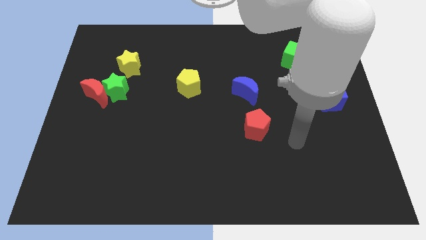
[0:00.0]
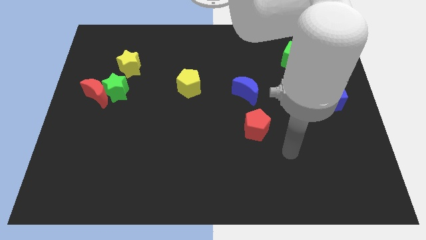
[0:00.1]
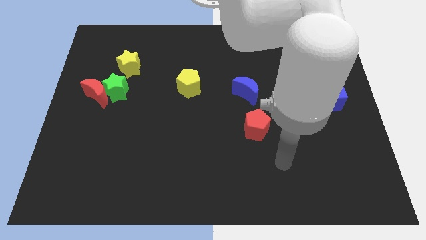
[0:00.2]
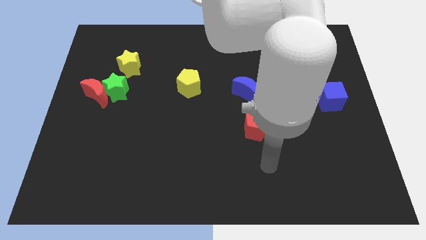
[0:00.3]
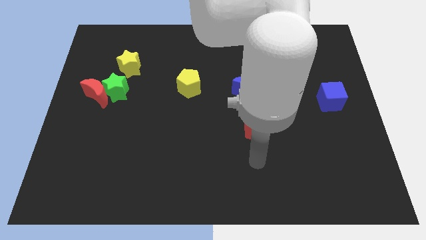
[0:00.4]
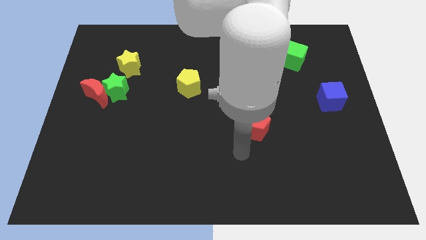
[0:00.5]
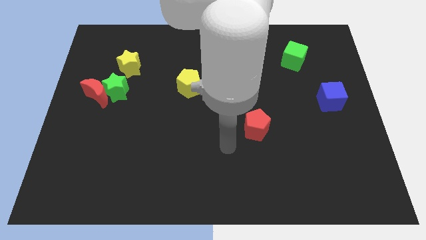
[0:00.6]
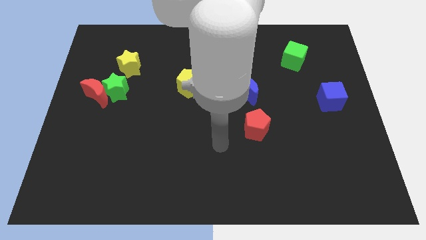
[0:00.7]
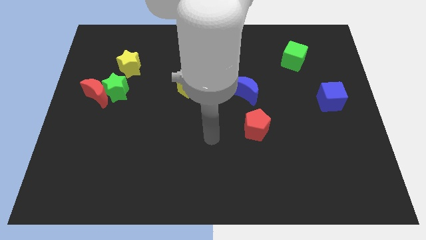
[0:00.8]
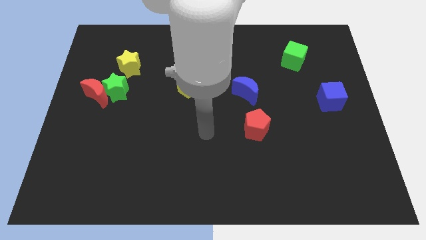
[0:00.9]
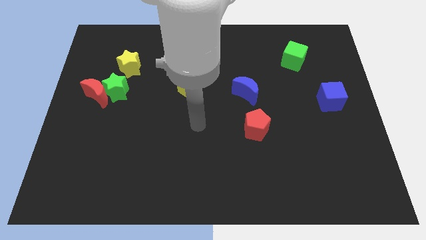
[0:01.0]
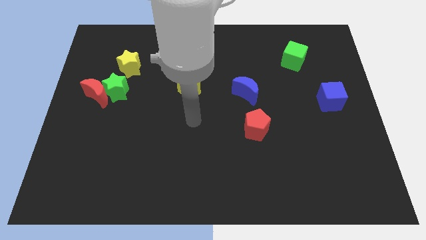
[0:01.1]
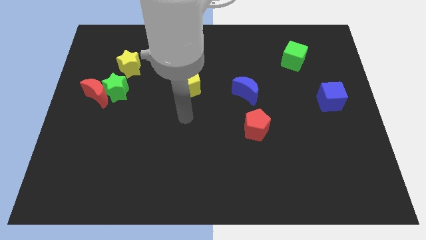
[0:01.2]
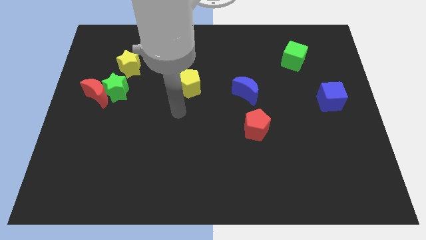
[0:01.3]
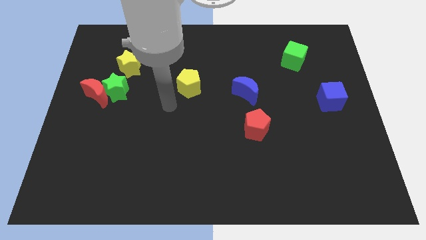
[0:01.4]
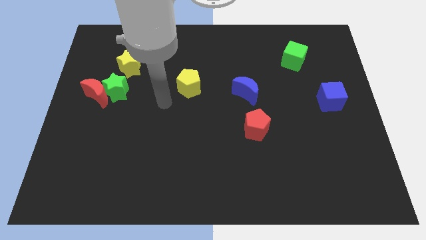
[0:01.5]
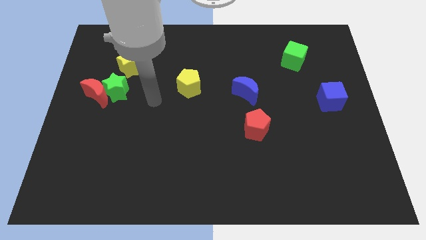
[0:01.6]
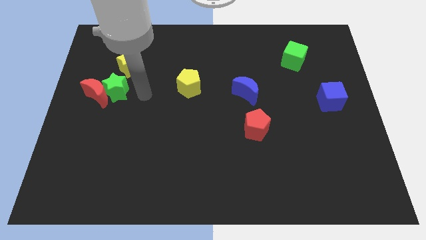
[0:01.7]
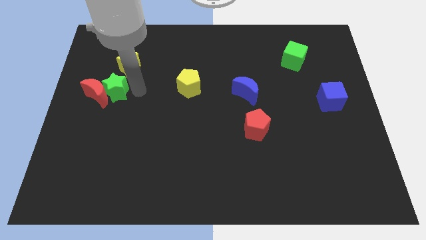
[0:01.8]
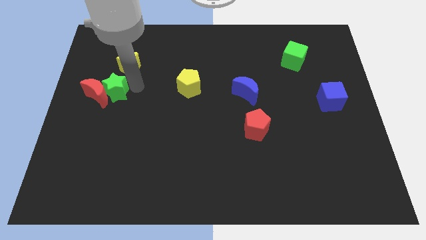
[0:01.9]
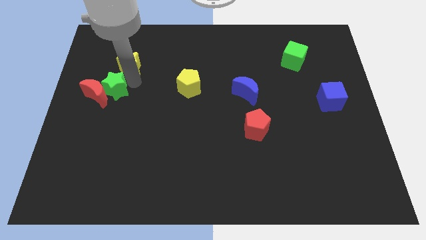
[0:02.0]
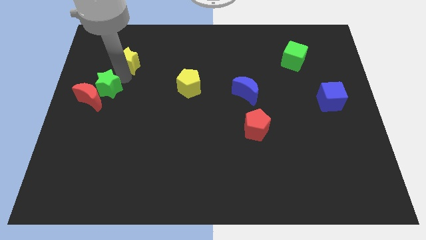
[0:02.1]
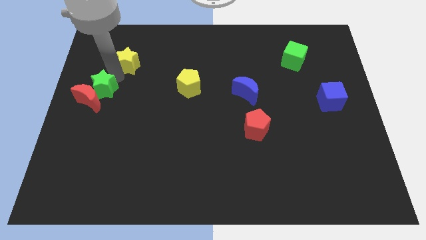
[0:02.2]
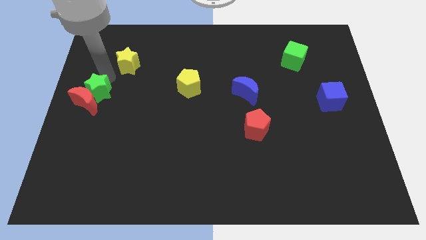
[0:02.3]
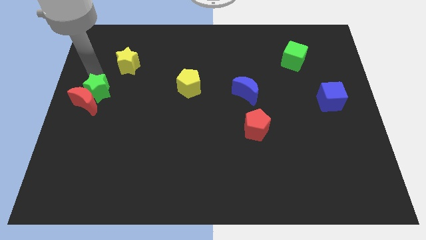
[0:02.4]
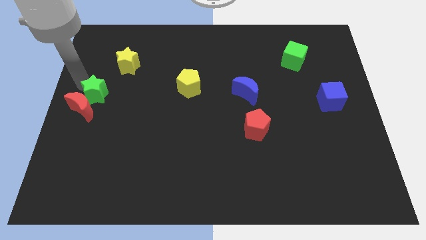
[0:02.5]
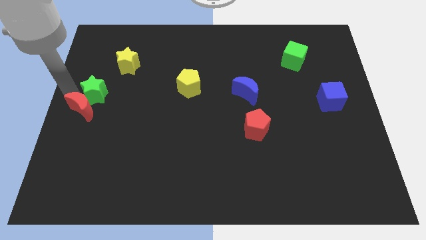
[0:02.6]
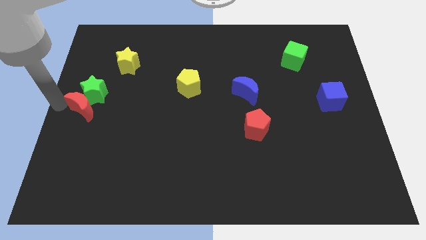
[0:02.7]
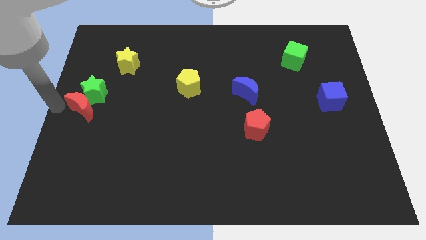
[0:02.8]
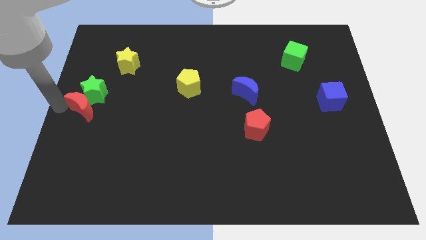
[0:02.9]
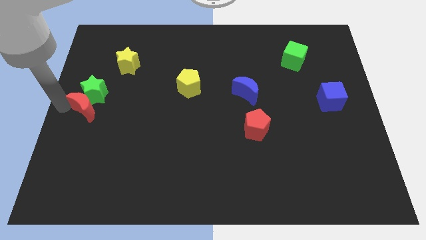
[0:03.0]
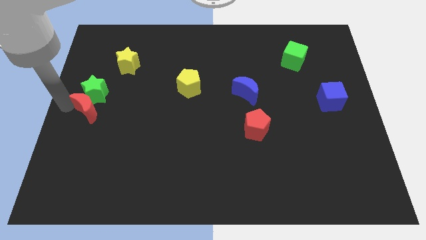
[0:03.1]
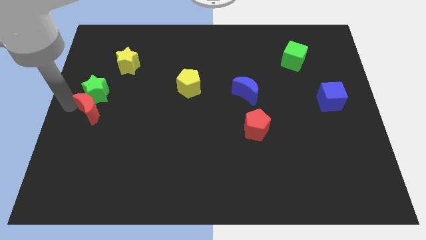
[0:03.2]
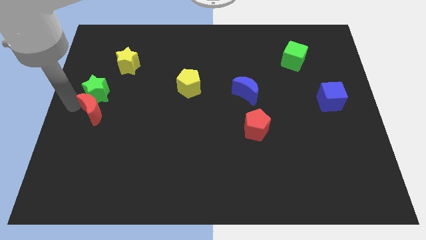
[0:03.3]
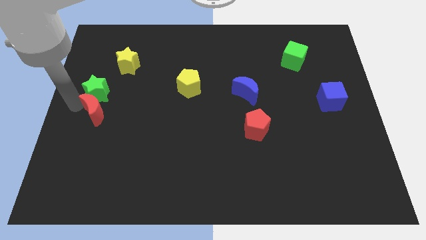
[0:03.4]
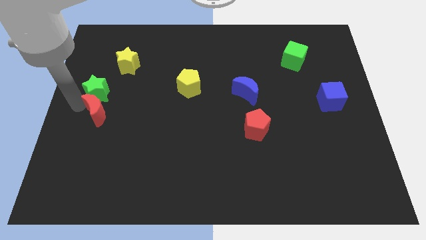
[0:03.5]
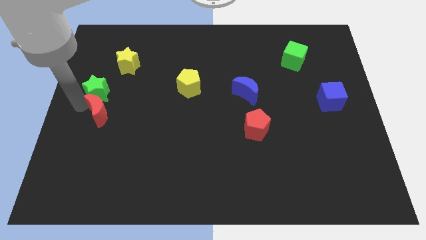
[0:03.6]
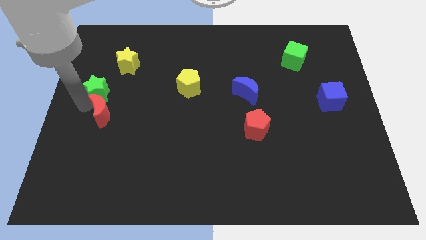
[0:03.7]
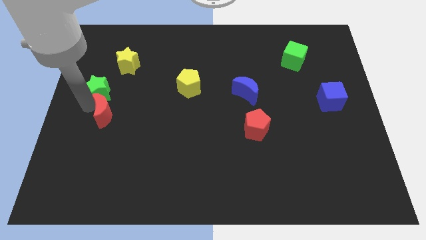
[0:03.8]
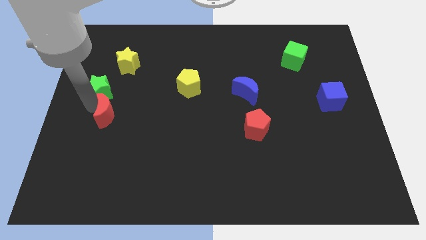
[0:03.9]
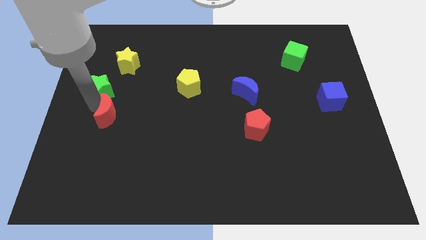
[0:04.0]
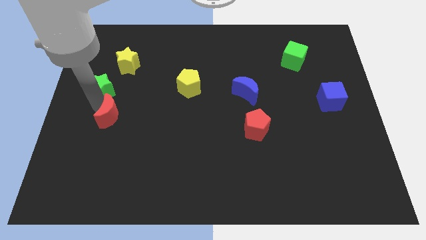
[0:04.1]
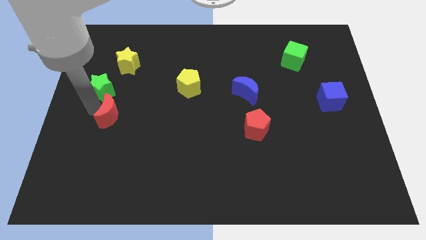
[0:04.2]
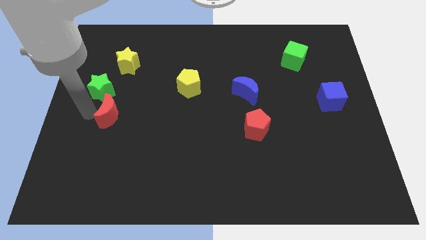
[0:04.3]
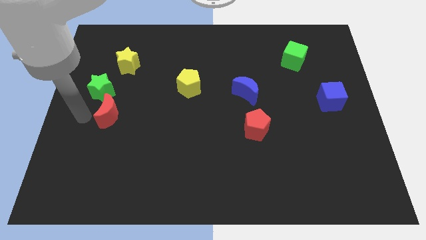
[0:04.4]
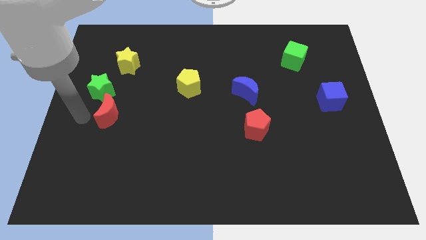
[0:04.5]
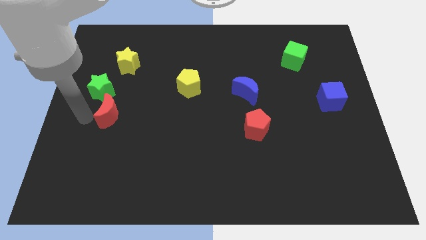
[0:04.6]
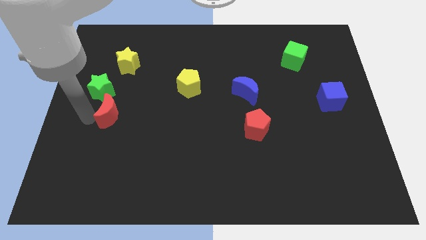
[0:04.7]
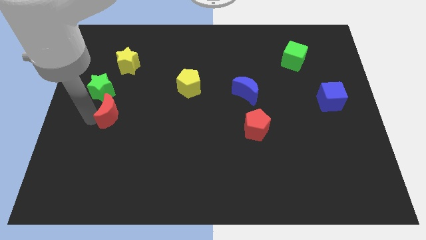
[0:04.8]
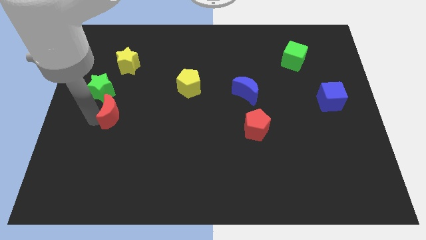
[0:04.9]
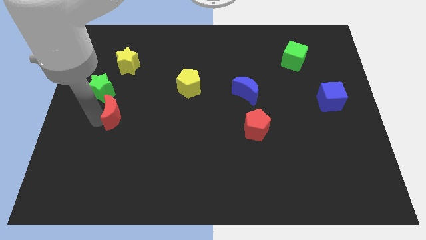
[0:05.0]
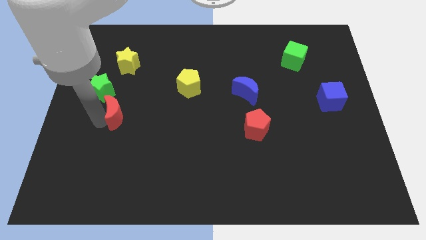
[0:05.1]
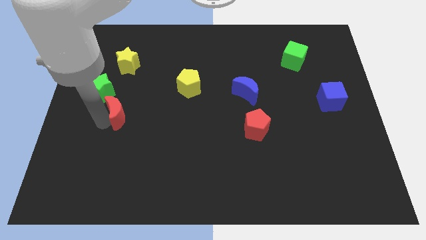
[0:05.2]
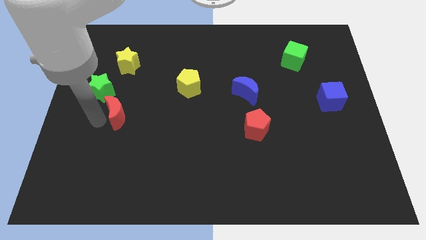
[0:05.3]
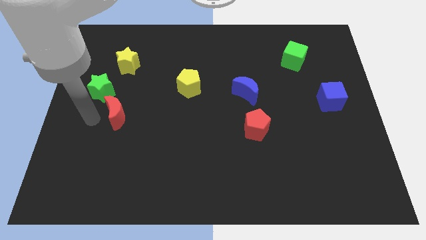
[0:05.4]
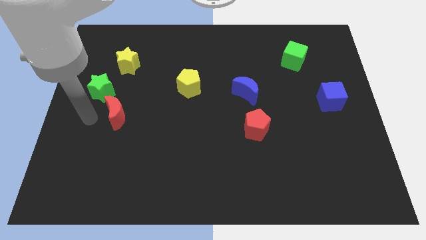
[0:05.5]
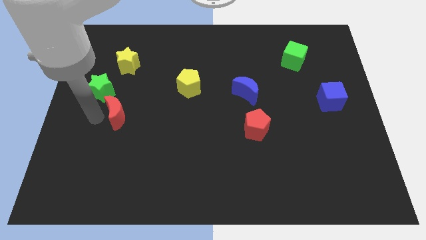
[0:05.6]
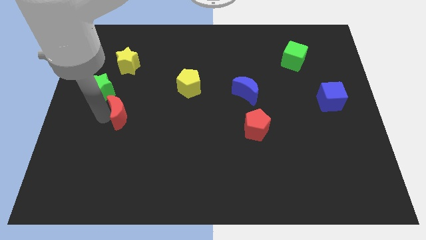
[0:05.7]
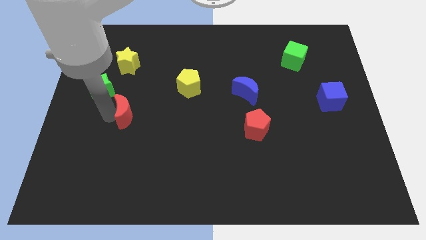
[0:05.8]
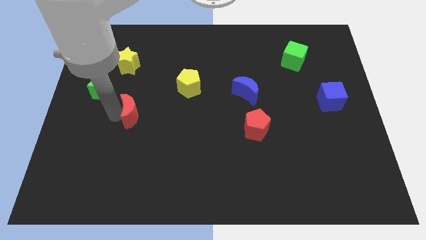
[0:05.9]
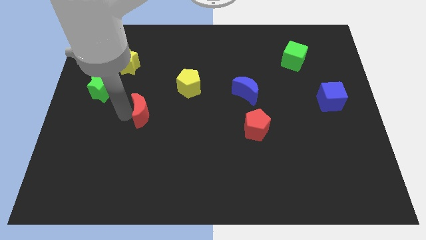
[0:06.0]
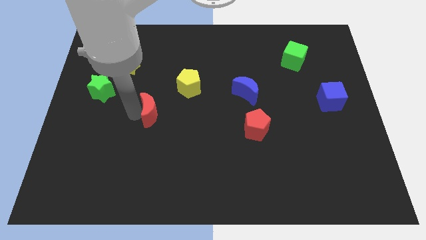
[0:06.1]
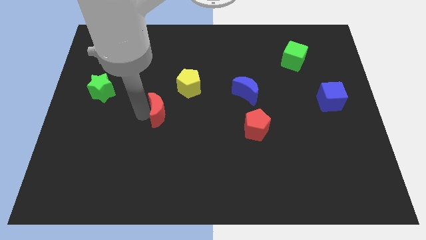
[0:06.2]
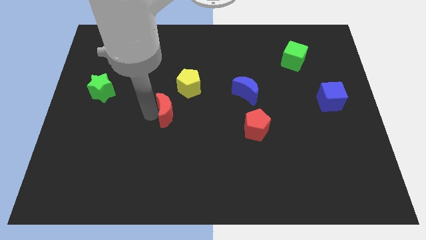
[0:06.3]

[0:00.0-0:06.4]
slide the red moon to the center of the board
